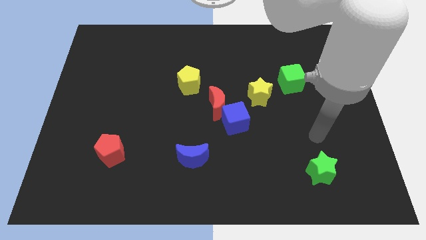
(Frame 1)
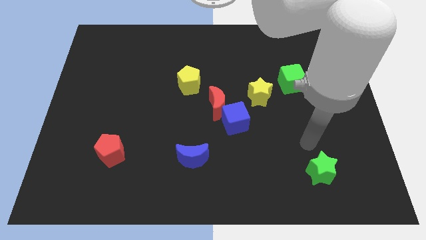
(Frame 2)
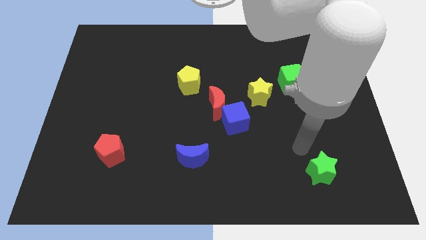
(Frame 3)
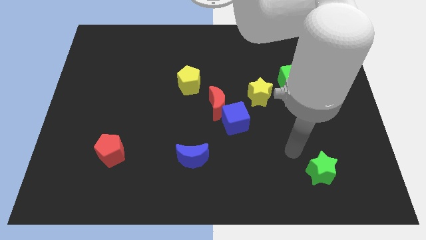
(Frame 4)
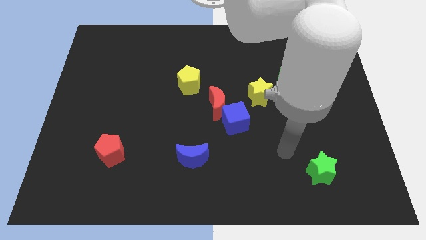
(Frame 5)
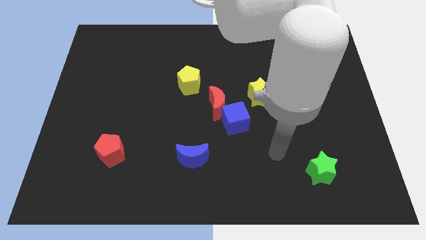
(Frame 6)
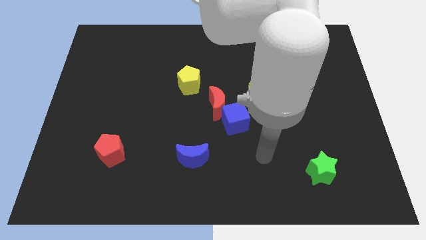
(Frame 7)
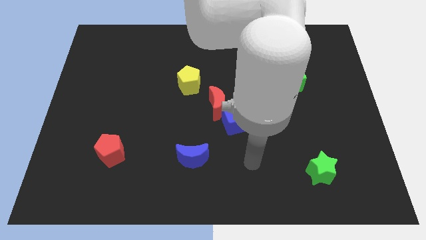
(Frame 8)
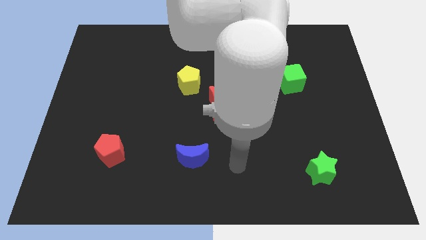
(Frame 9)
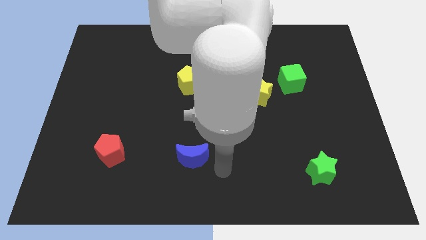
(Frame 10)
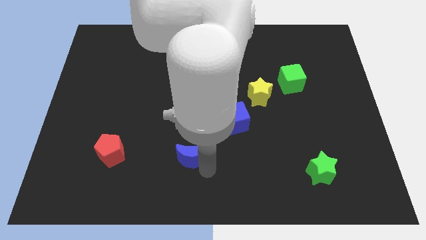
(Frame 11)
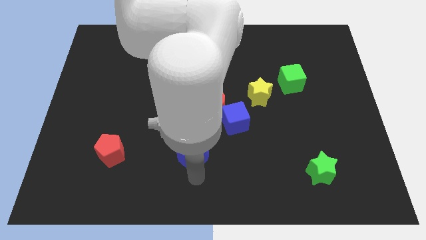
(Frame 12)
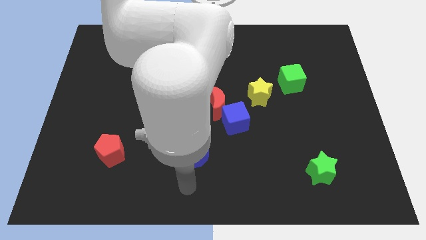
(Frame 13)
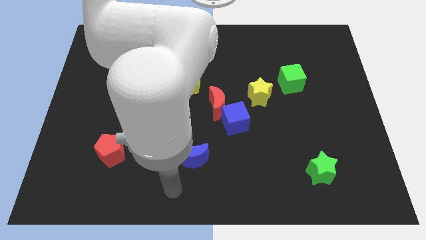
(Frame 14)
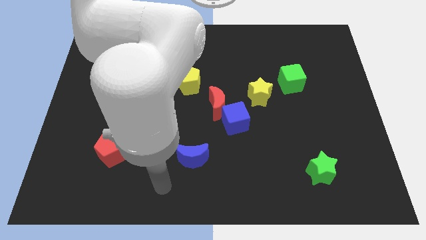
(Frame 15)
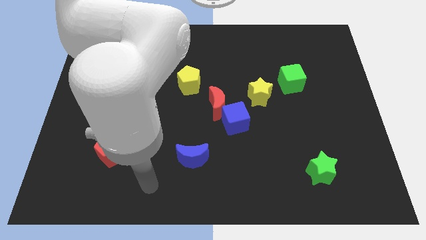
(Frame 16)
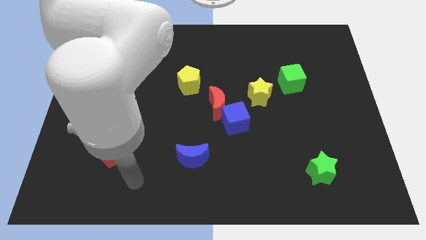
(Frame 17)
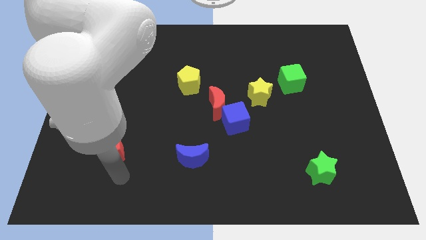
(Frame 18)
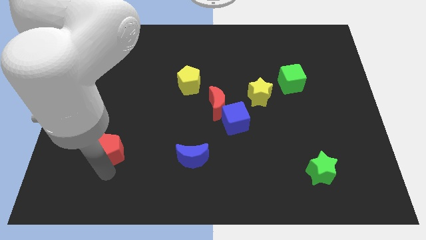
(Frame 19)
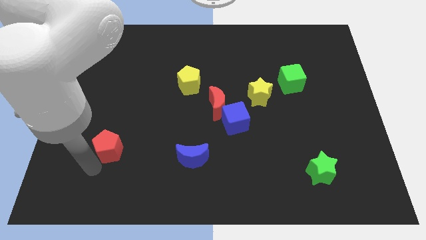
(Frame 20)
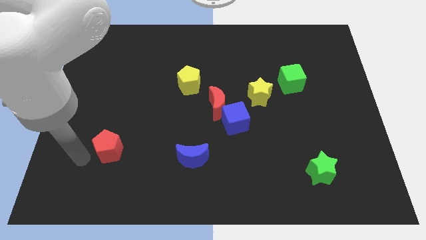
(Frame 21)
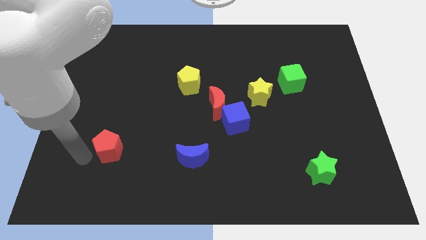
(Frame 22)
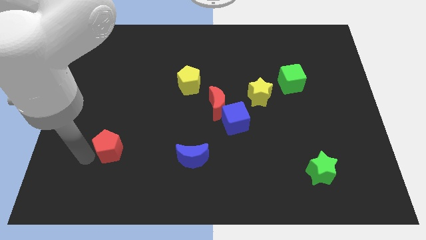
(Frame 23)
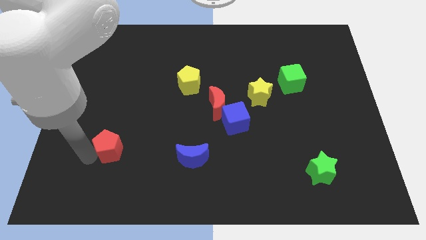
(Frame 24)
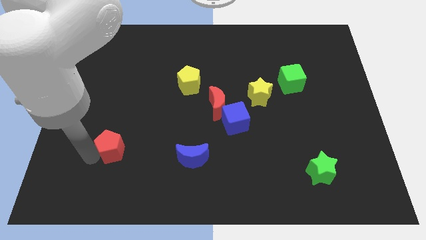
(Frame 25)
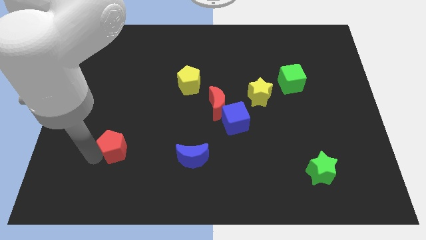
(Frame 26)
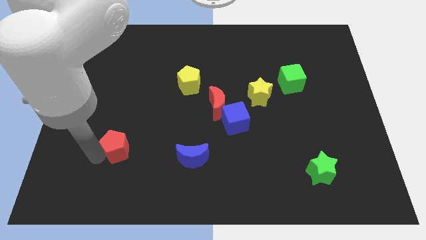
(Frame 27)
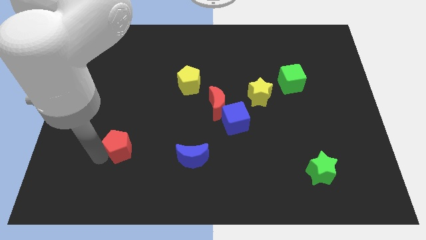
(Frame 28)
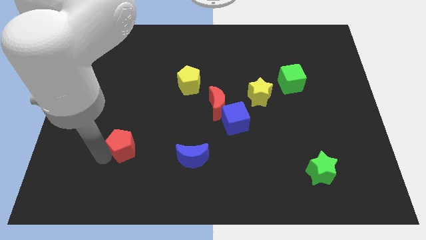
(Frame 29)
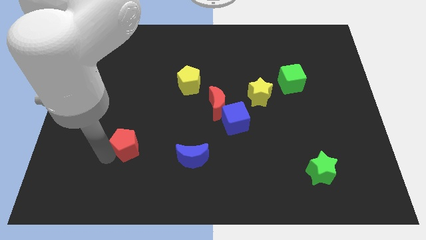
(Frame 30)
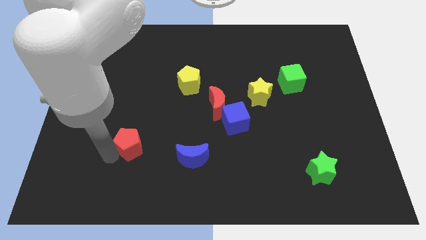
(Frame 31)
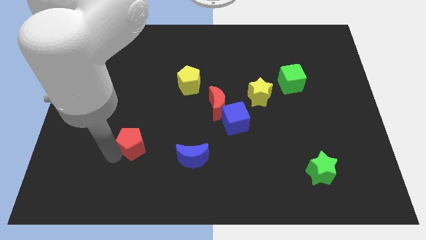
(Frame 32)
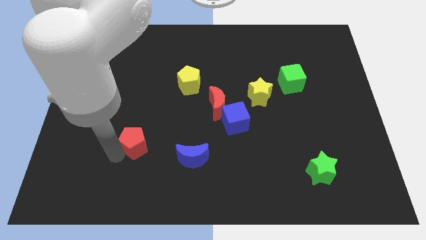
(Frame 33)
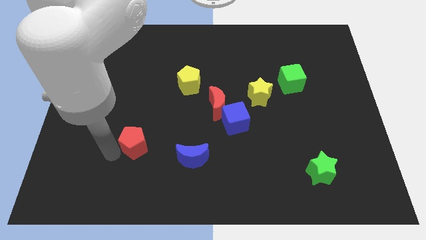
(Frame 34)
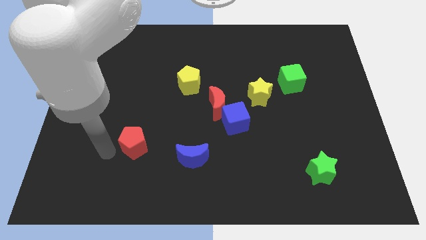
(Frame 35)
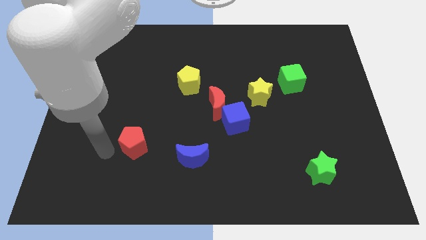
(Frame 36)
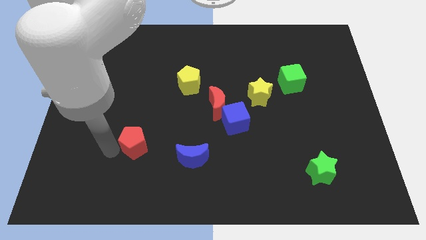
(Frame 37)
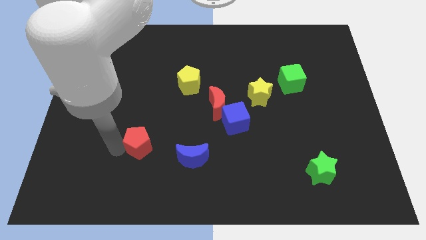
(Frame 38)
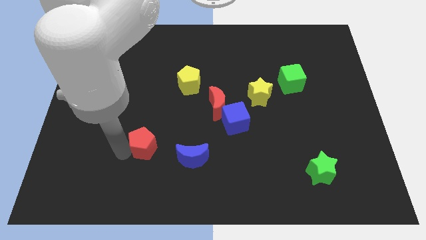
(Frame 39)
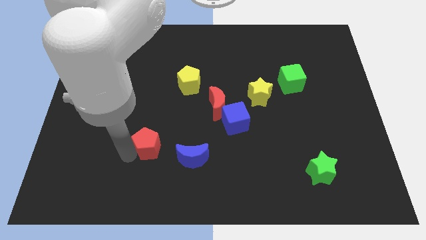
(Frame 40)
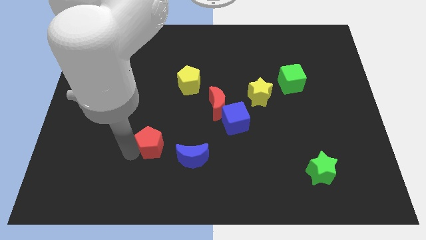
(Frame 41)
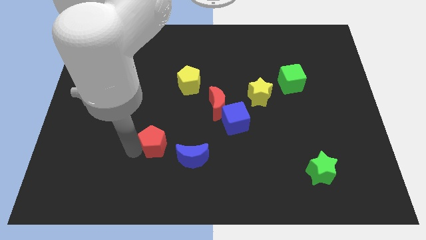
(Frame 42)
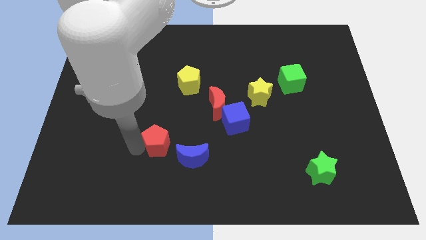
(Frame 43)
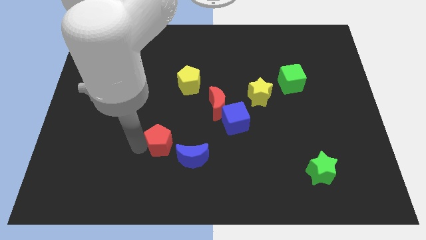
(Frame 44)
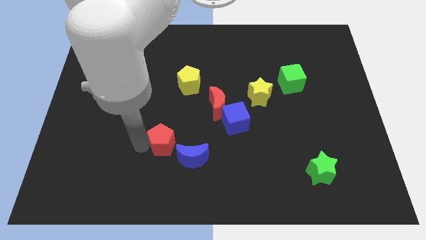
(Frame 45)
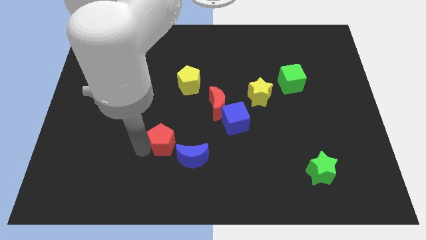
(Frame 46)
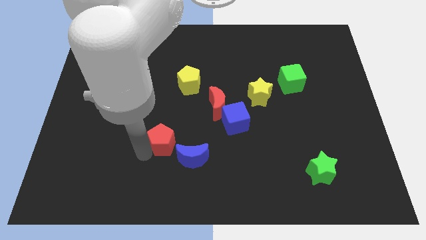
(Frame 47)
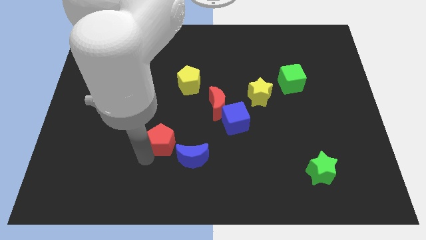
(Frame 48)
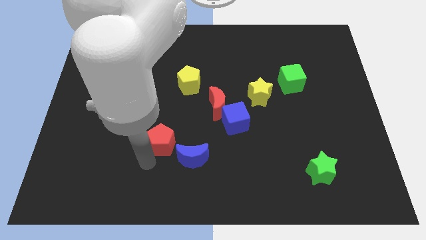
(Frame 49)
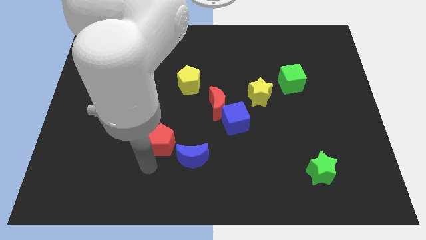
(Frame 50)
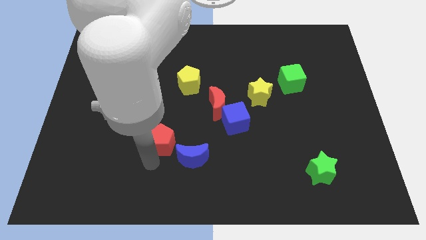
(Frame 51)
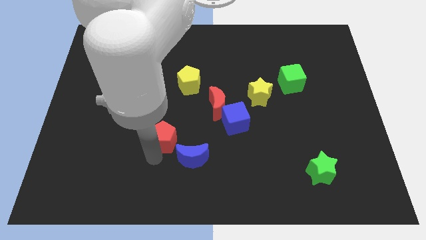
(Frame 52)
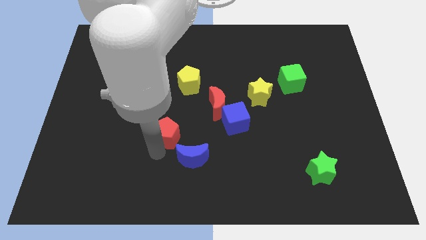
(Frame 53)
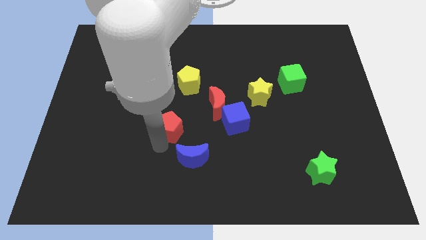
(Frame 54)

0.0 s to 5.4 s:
push the red pentagon to the left side of the blue cube

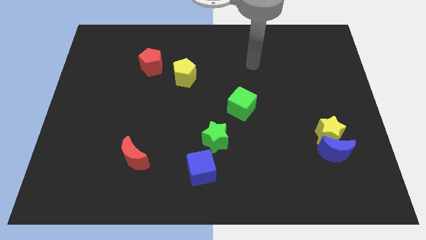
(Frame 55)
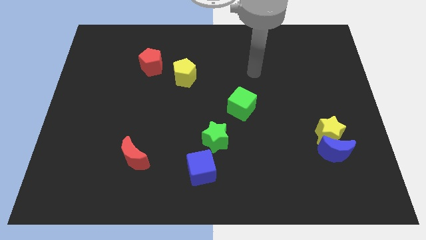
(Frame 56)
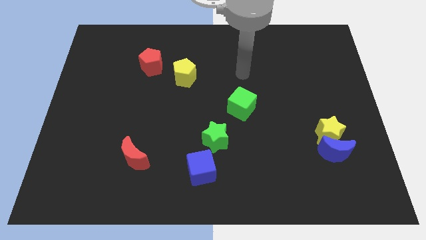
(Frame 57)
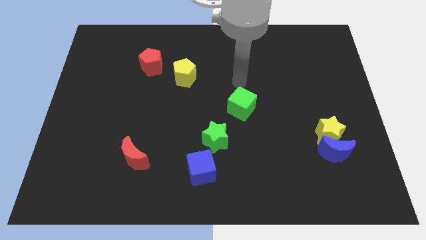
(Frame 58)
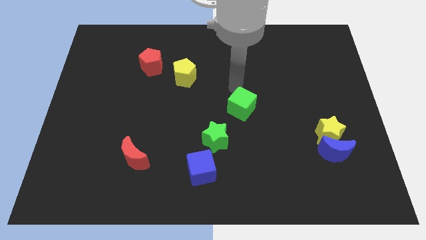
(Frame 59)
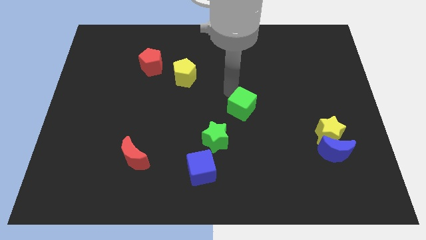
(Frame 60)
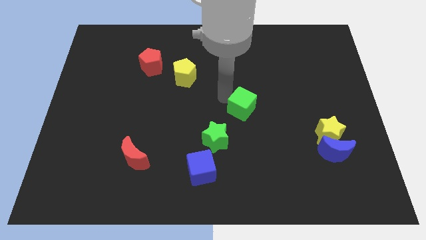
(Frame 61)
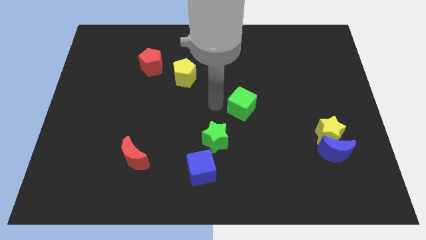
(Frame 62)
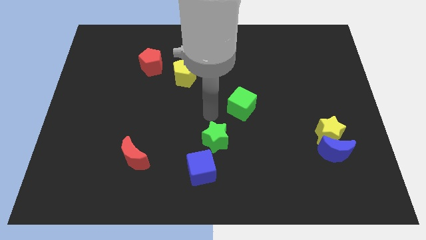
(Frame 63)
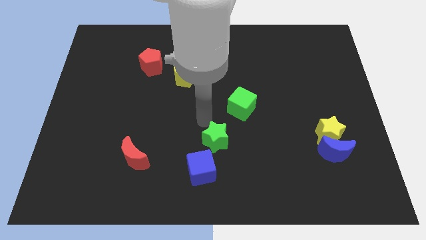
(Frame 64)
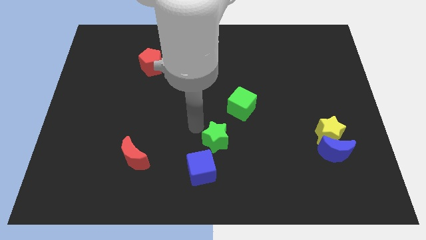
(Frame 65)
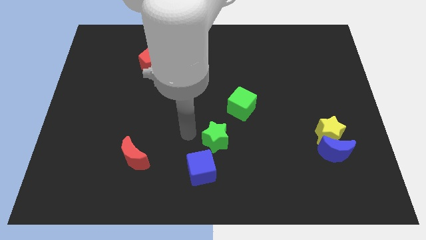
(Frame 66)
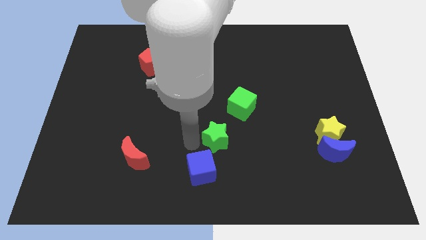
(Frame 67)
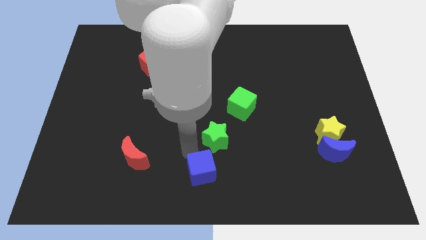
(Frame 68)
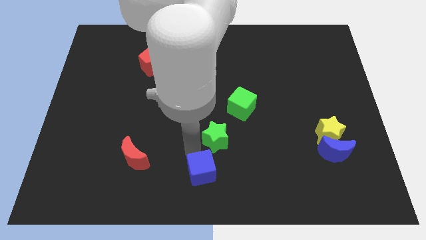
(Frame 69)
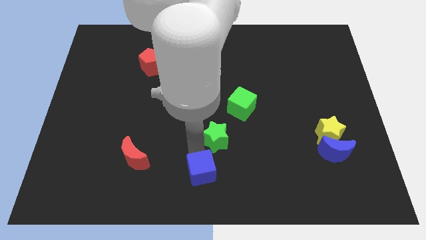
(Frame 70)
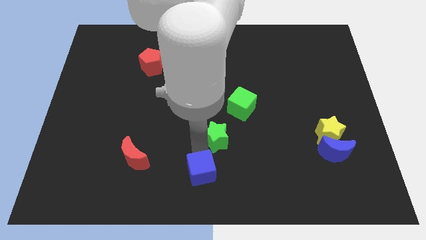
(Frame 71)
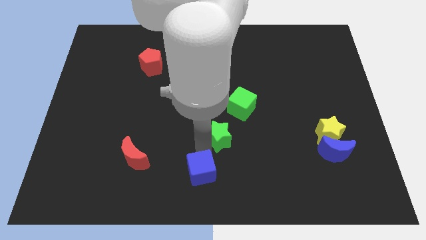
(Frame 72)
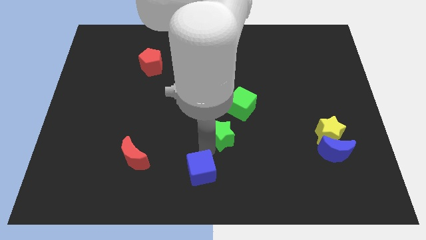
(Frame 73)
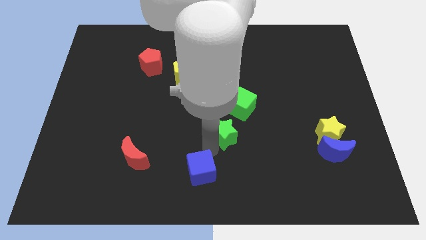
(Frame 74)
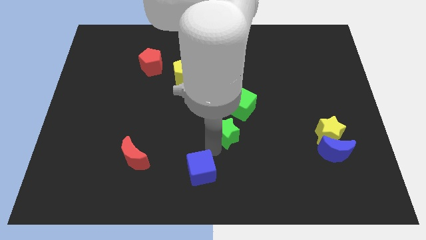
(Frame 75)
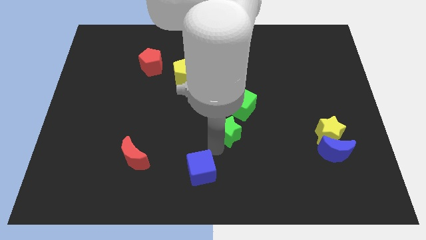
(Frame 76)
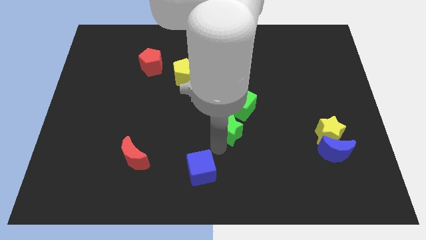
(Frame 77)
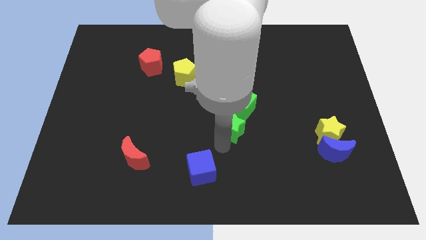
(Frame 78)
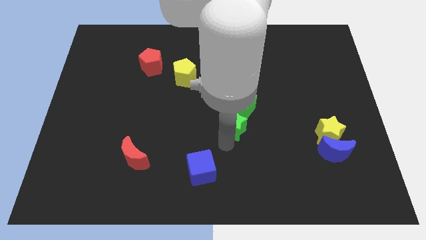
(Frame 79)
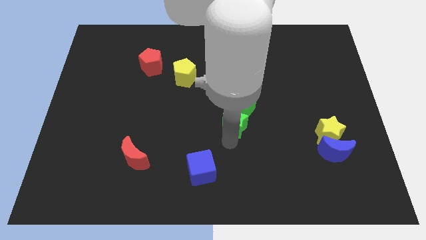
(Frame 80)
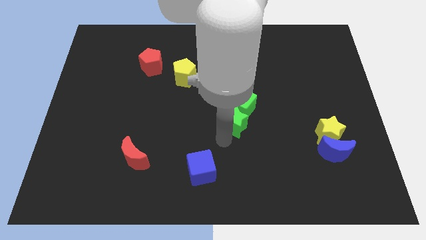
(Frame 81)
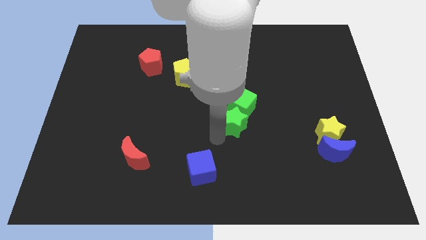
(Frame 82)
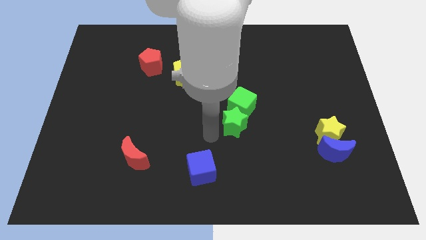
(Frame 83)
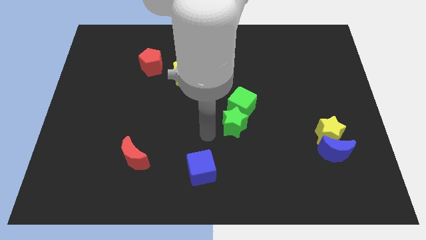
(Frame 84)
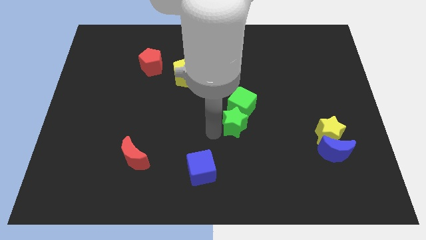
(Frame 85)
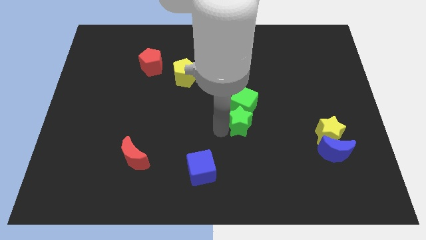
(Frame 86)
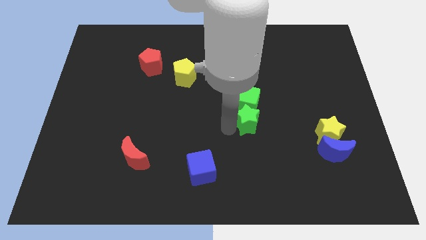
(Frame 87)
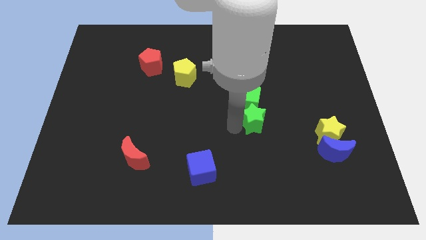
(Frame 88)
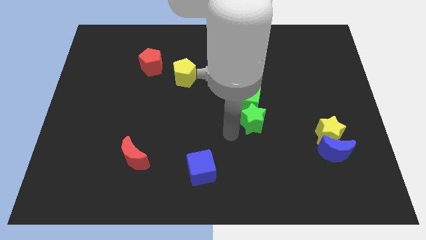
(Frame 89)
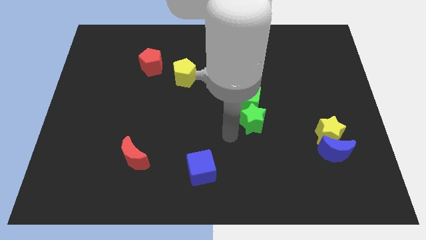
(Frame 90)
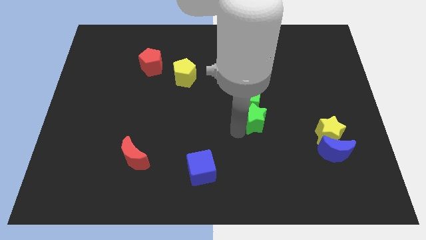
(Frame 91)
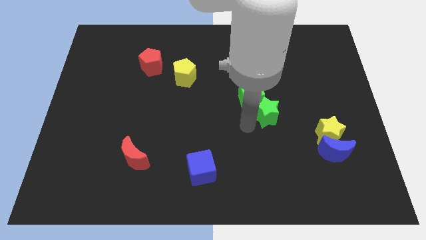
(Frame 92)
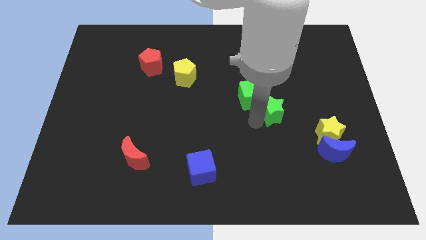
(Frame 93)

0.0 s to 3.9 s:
slide the green star to the right side of the green cube
